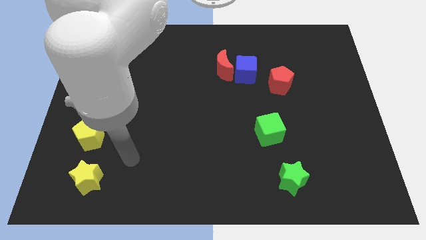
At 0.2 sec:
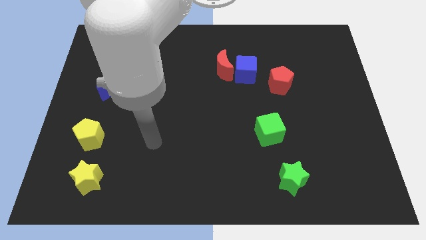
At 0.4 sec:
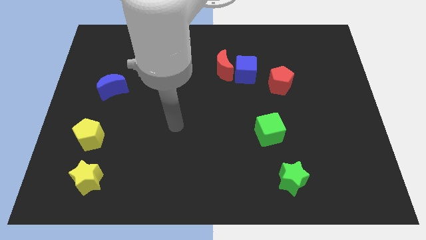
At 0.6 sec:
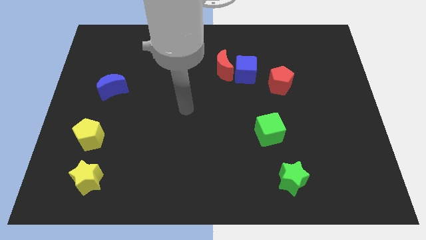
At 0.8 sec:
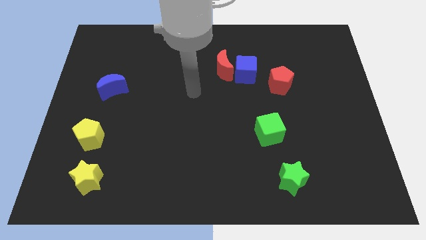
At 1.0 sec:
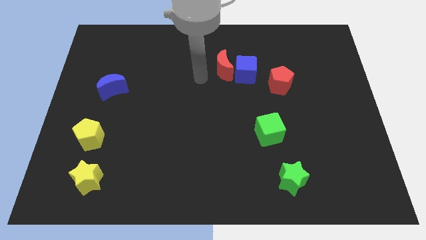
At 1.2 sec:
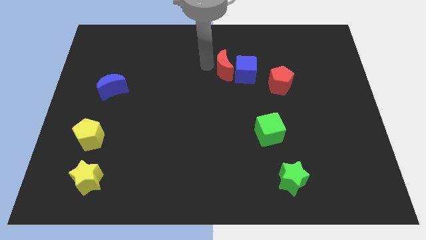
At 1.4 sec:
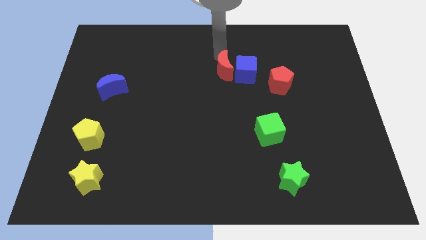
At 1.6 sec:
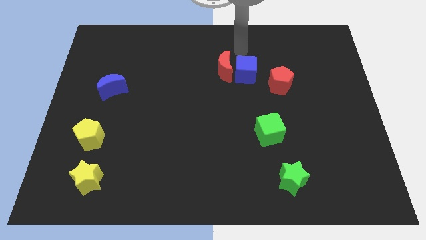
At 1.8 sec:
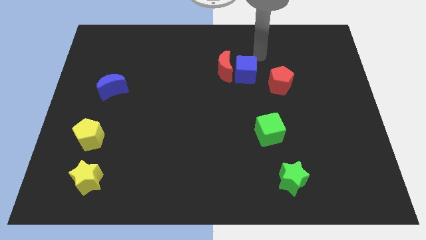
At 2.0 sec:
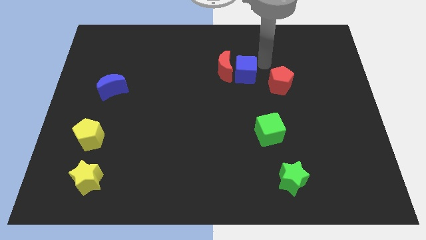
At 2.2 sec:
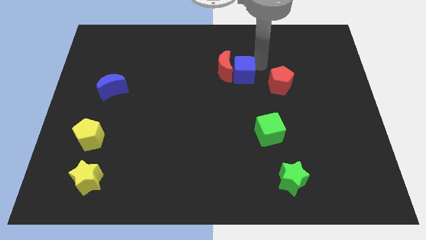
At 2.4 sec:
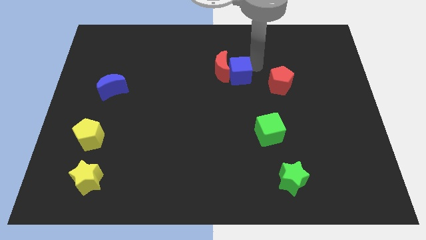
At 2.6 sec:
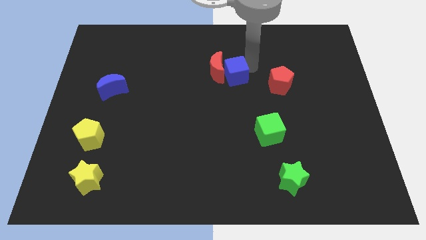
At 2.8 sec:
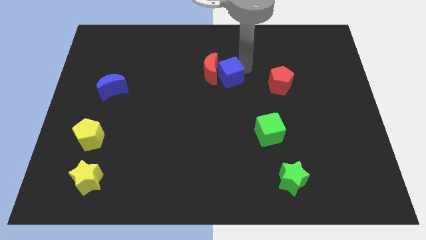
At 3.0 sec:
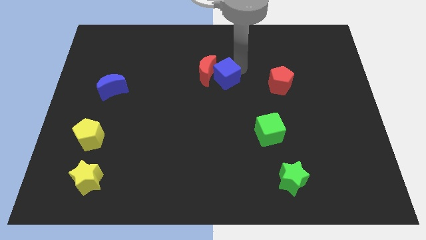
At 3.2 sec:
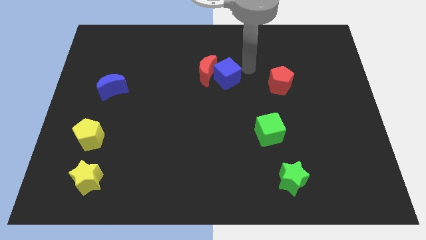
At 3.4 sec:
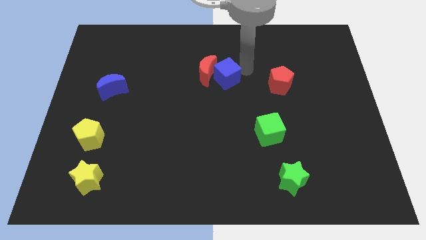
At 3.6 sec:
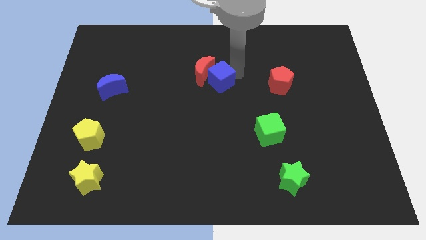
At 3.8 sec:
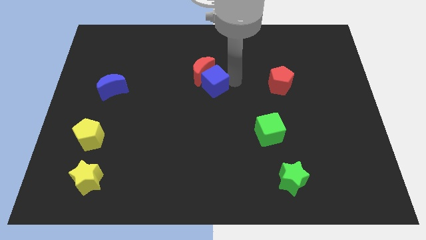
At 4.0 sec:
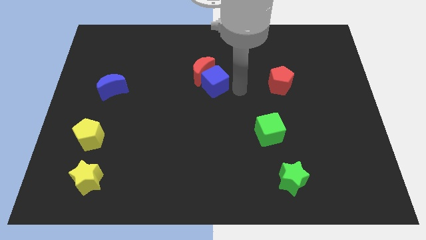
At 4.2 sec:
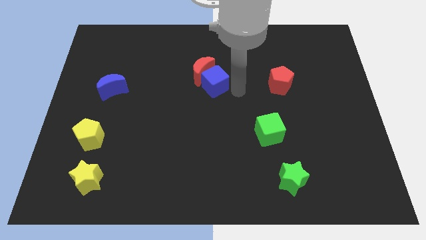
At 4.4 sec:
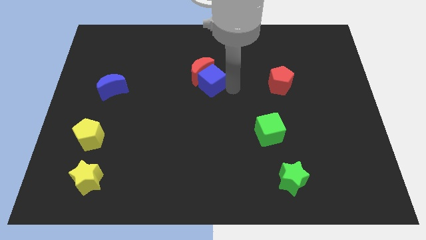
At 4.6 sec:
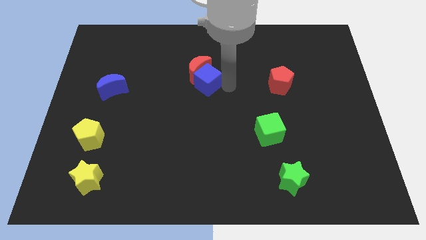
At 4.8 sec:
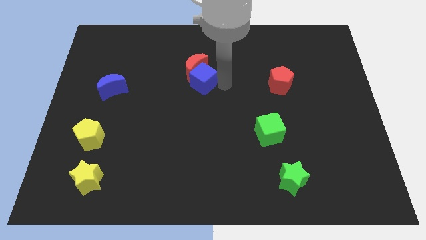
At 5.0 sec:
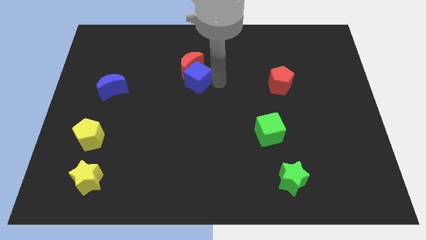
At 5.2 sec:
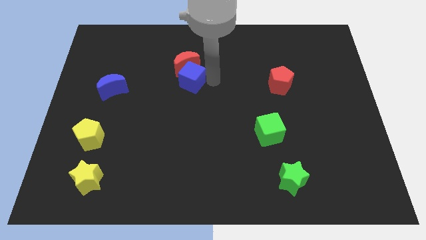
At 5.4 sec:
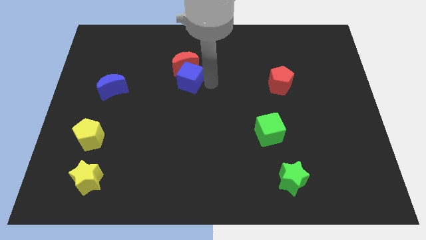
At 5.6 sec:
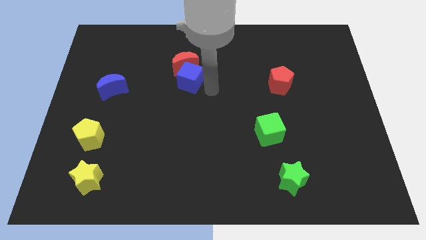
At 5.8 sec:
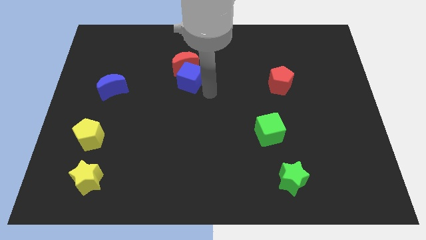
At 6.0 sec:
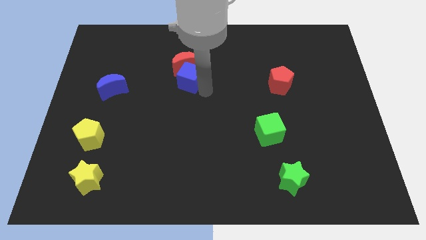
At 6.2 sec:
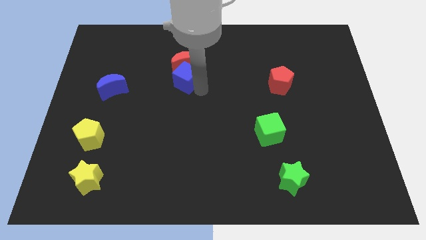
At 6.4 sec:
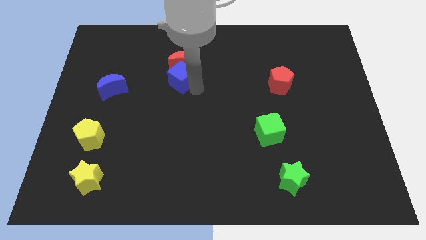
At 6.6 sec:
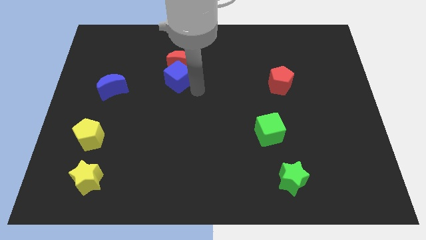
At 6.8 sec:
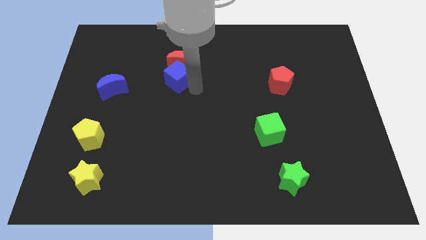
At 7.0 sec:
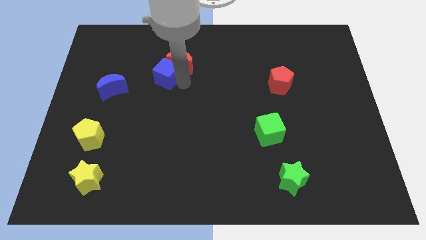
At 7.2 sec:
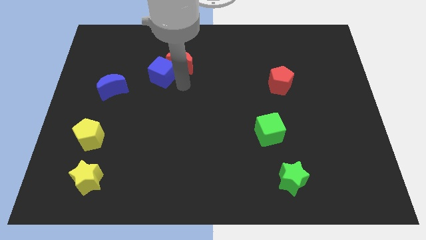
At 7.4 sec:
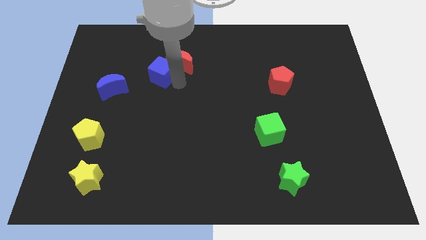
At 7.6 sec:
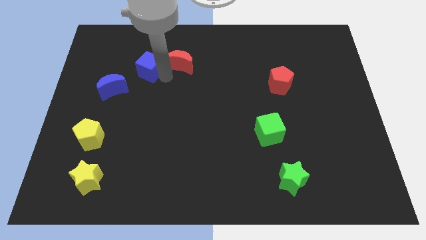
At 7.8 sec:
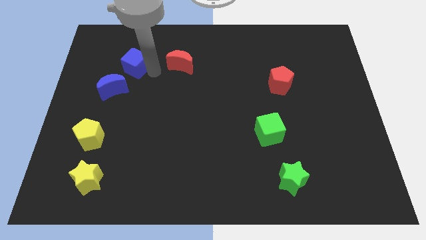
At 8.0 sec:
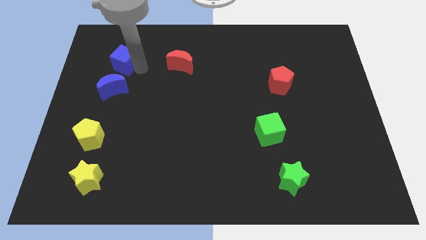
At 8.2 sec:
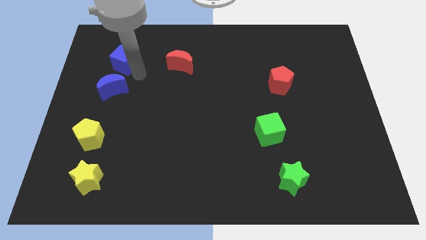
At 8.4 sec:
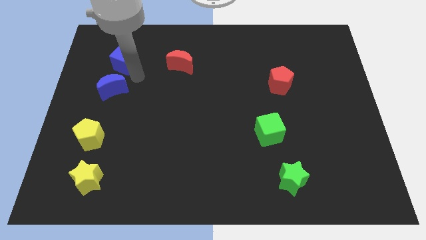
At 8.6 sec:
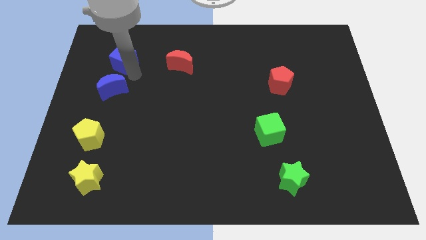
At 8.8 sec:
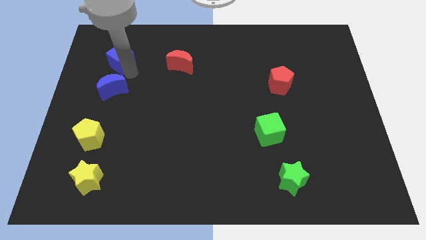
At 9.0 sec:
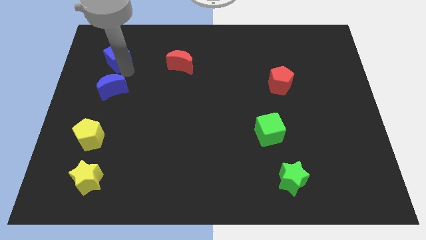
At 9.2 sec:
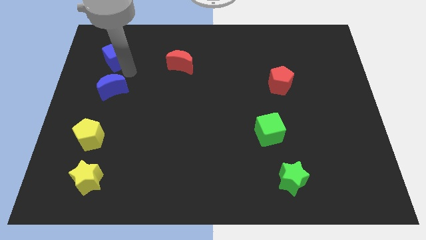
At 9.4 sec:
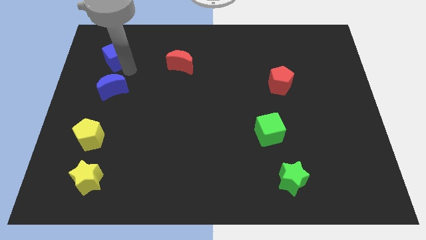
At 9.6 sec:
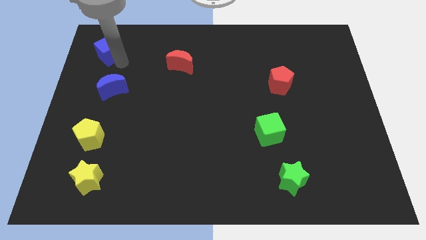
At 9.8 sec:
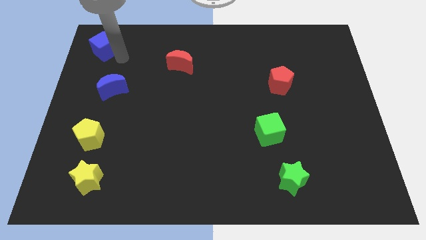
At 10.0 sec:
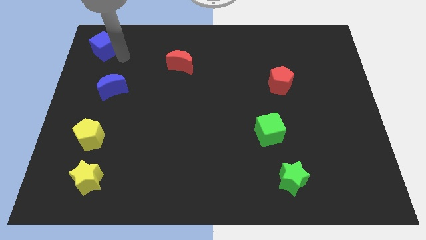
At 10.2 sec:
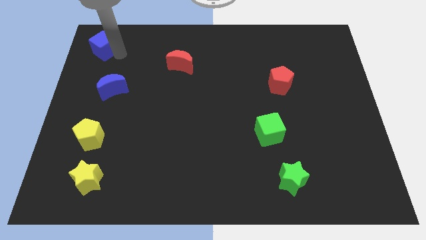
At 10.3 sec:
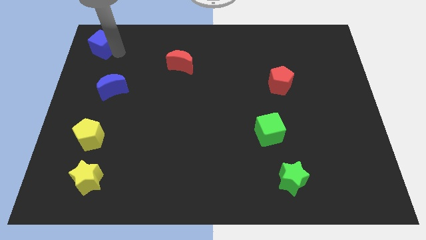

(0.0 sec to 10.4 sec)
put the blue cube to the top left corner
